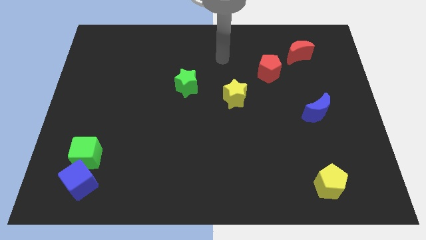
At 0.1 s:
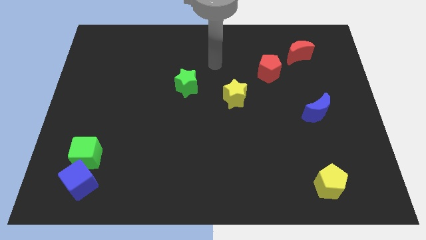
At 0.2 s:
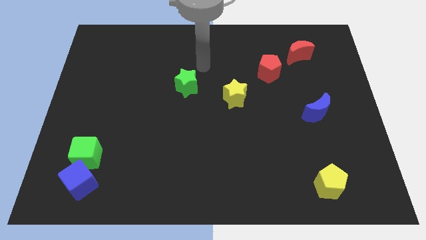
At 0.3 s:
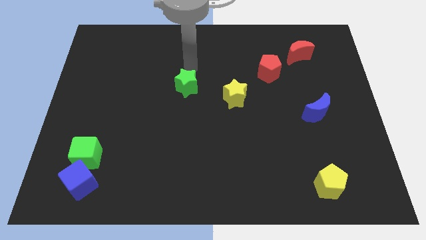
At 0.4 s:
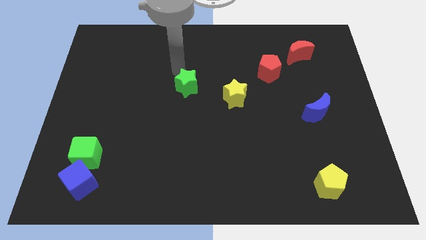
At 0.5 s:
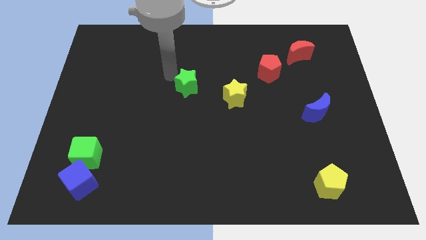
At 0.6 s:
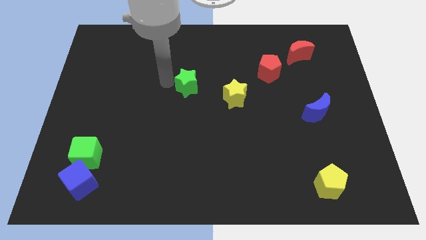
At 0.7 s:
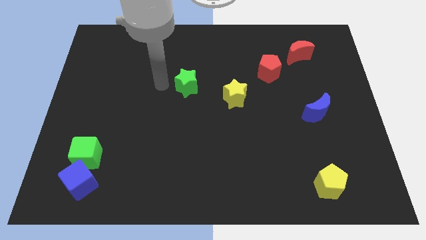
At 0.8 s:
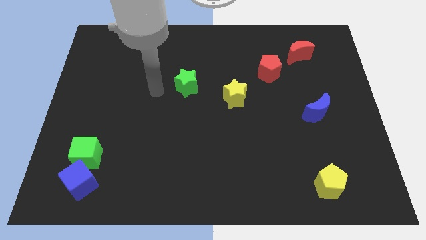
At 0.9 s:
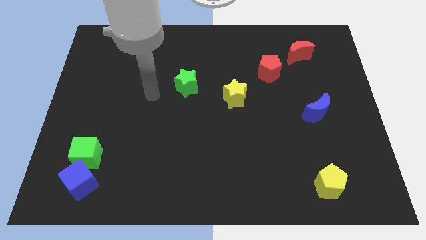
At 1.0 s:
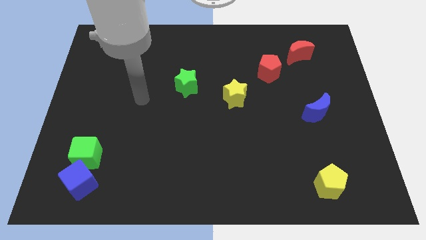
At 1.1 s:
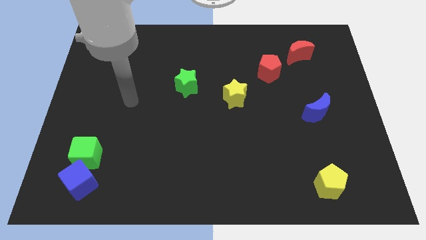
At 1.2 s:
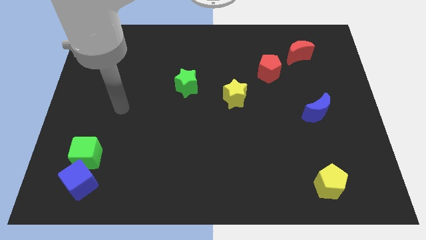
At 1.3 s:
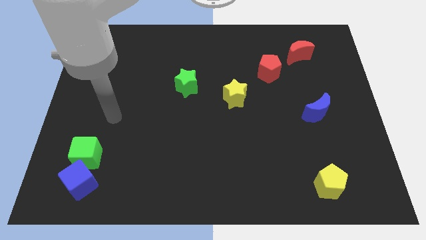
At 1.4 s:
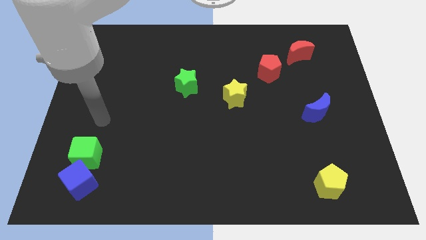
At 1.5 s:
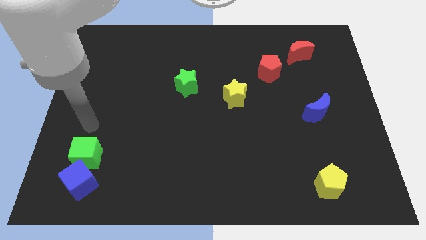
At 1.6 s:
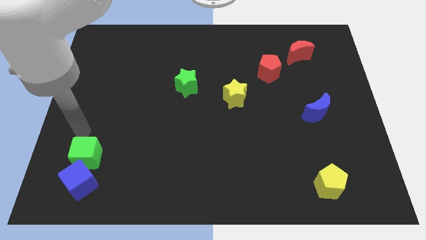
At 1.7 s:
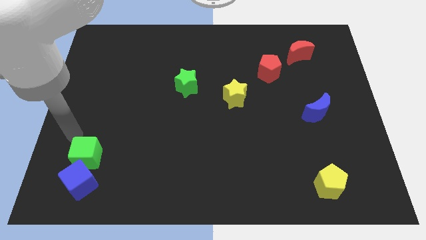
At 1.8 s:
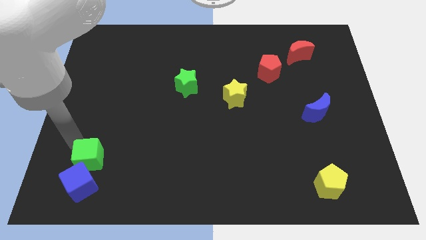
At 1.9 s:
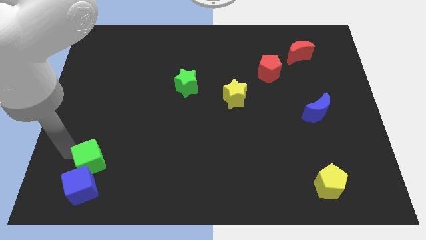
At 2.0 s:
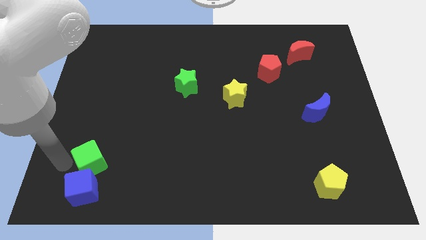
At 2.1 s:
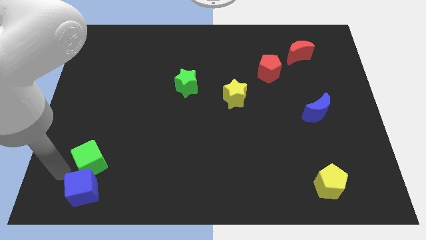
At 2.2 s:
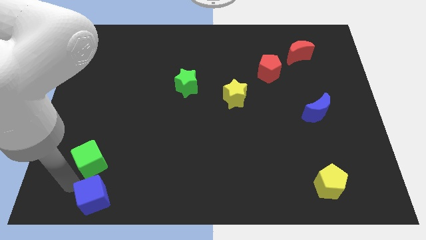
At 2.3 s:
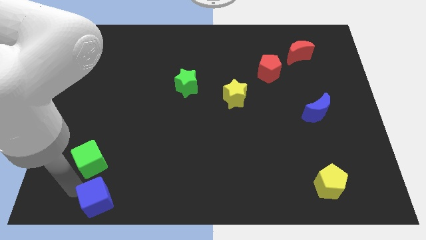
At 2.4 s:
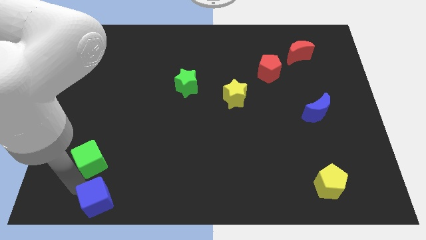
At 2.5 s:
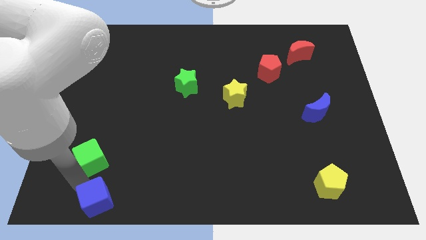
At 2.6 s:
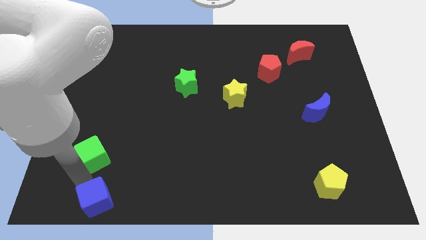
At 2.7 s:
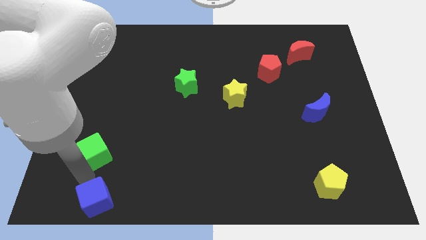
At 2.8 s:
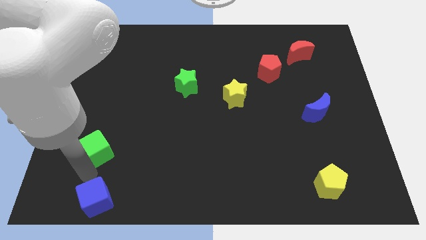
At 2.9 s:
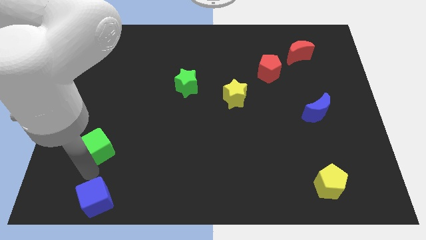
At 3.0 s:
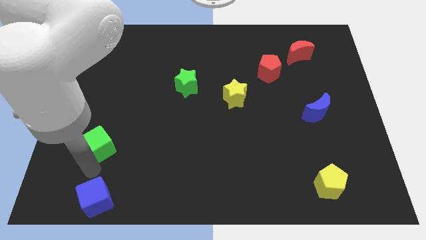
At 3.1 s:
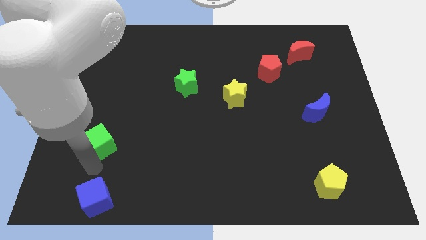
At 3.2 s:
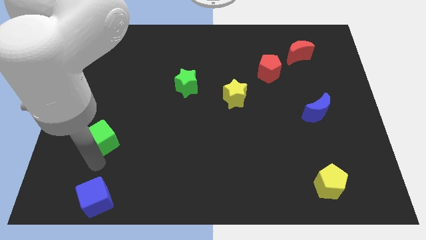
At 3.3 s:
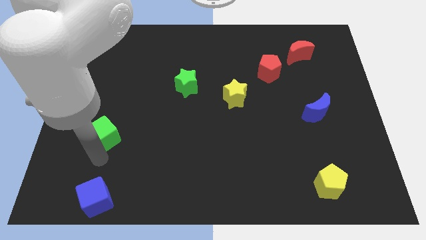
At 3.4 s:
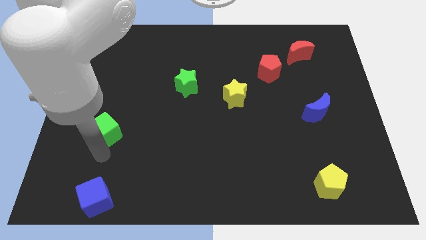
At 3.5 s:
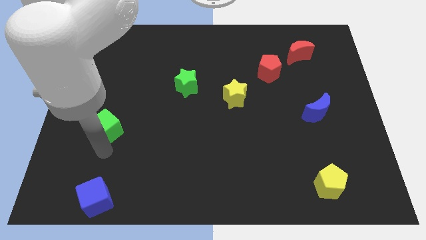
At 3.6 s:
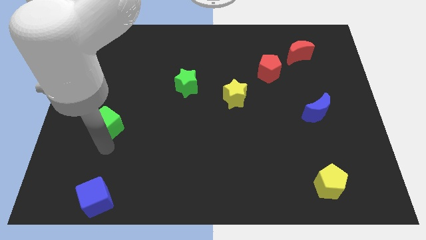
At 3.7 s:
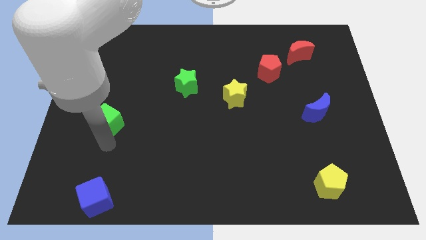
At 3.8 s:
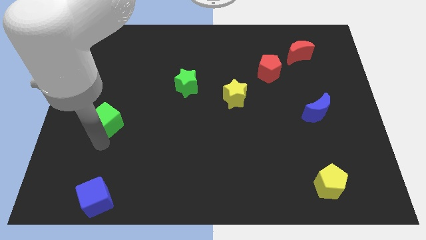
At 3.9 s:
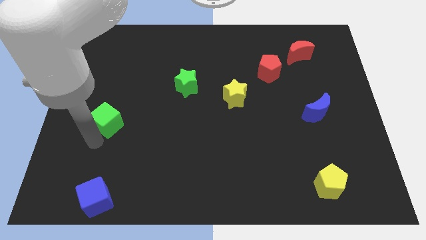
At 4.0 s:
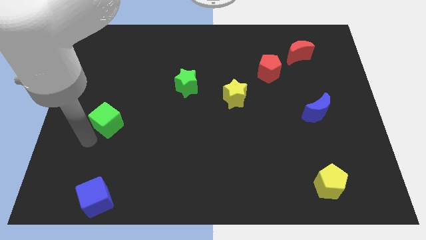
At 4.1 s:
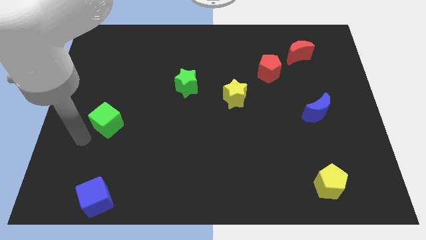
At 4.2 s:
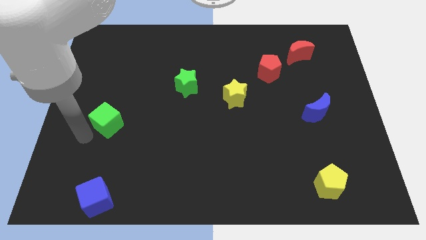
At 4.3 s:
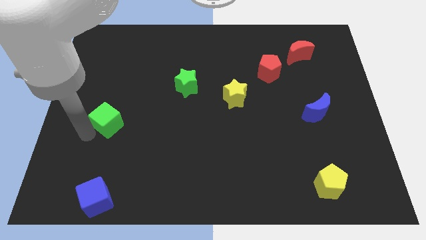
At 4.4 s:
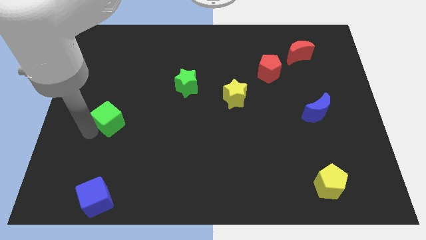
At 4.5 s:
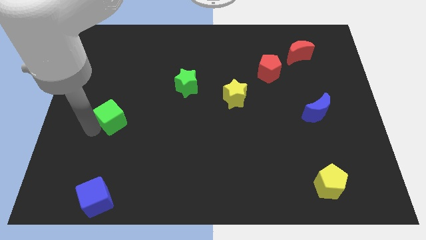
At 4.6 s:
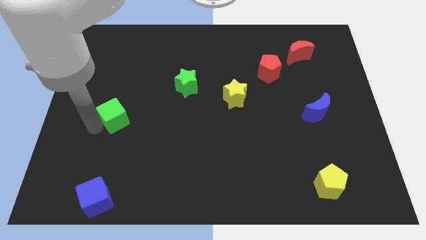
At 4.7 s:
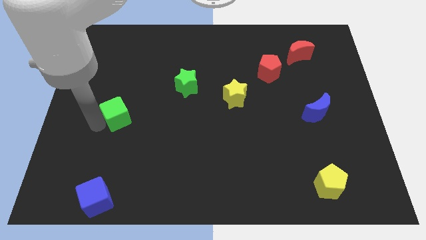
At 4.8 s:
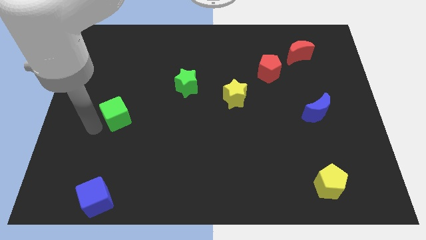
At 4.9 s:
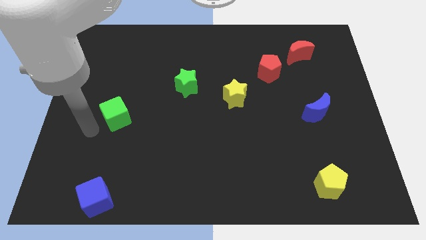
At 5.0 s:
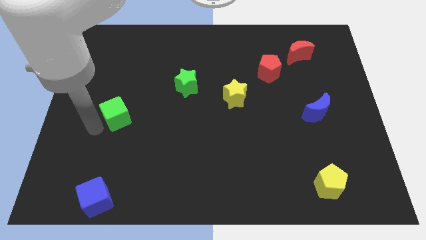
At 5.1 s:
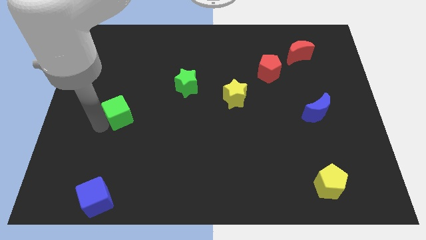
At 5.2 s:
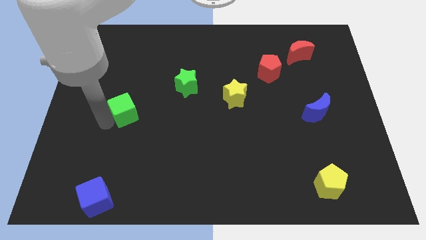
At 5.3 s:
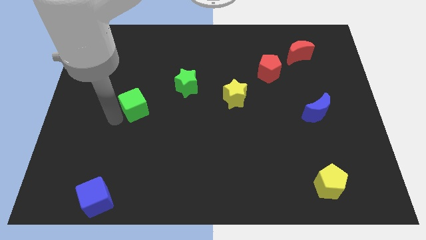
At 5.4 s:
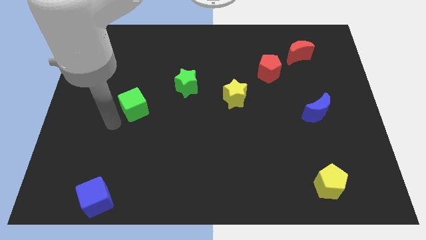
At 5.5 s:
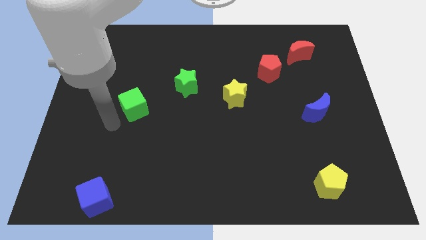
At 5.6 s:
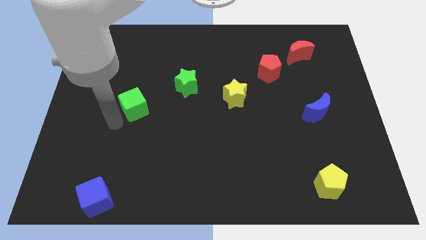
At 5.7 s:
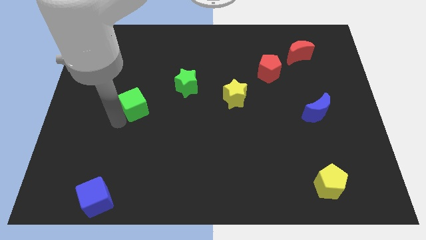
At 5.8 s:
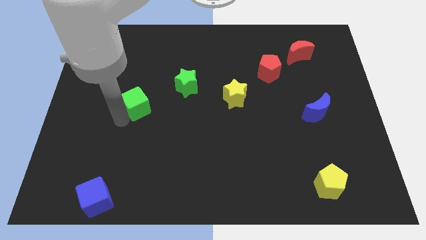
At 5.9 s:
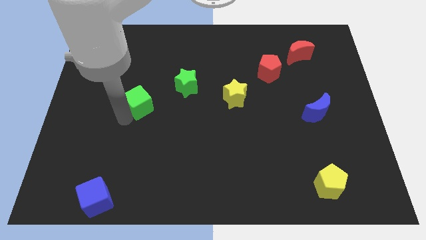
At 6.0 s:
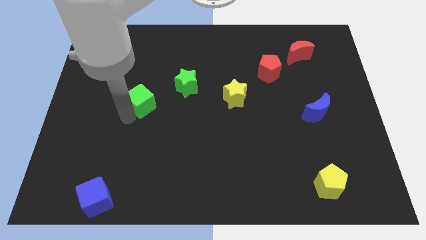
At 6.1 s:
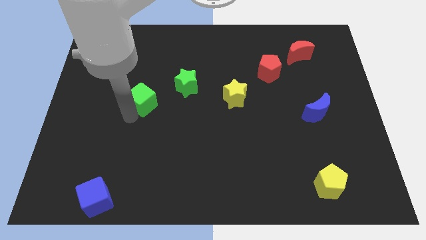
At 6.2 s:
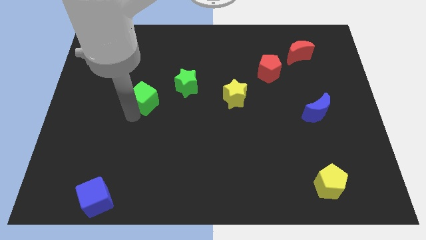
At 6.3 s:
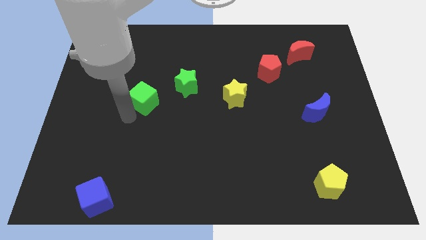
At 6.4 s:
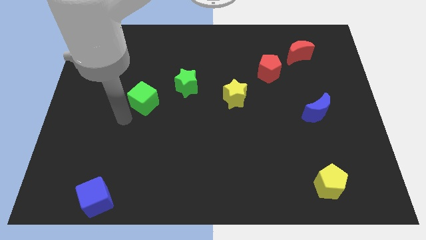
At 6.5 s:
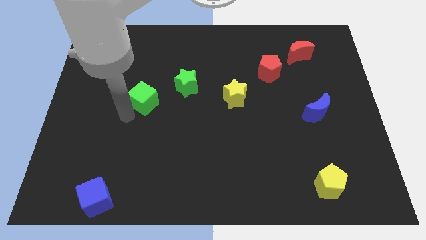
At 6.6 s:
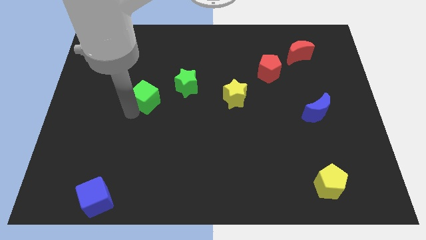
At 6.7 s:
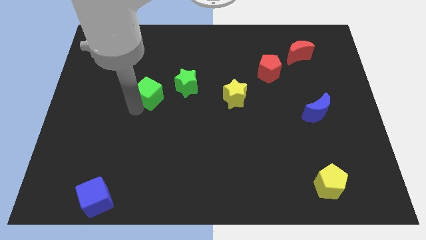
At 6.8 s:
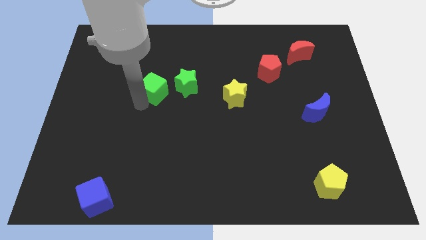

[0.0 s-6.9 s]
move the green cube upwards and right

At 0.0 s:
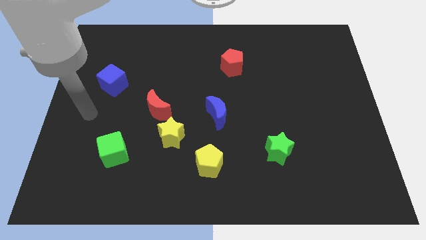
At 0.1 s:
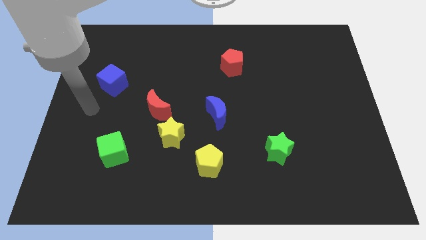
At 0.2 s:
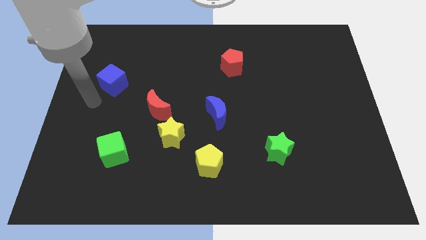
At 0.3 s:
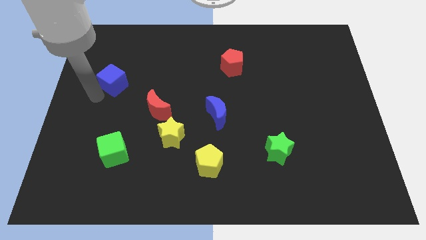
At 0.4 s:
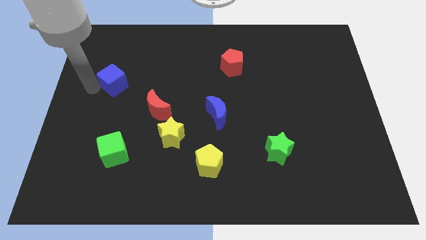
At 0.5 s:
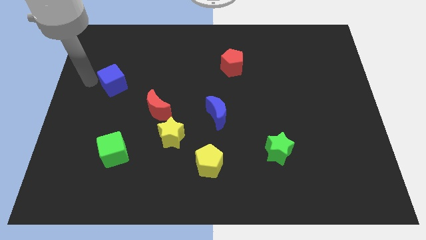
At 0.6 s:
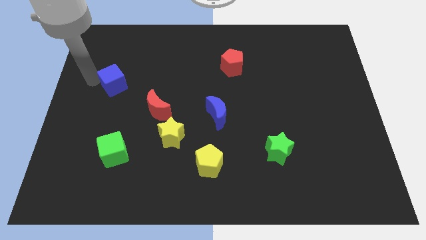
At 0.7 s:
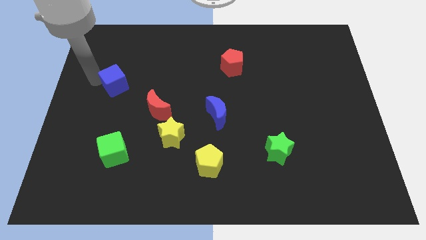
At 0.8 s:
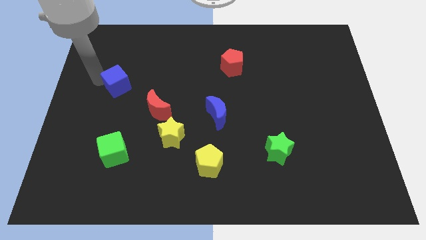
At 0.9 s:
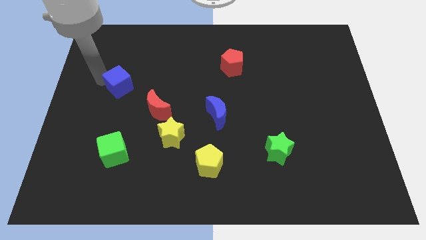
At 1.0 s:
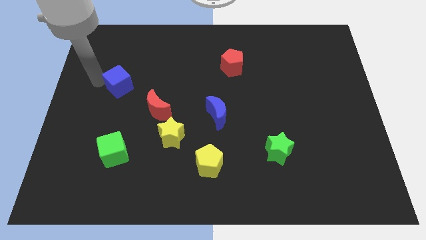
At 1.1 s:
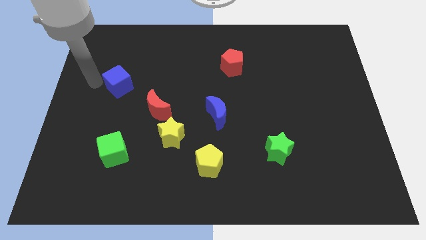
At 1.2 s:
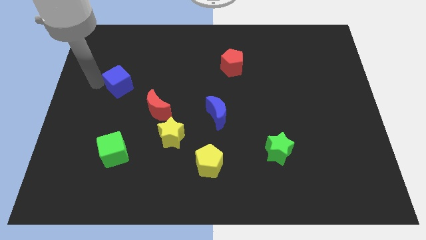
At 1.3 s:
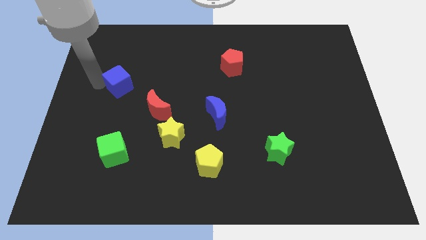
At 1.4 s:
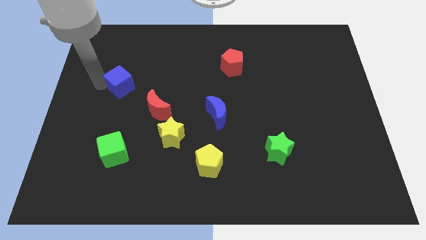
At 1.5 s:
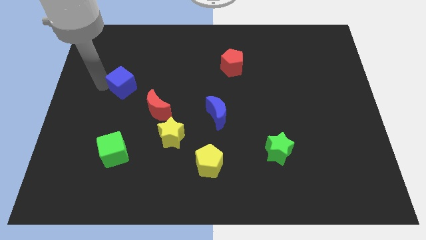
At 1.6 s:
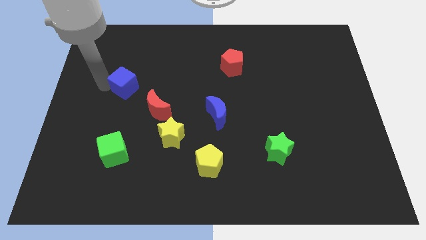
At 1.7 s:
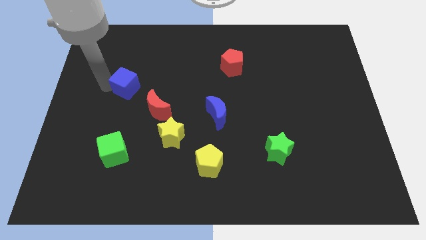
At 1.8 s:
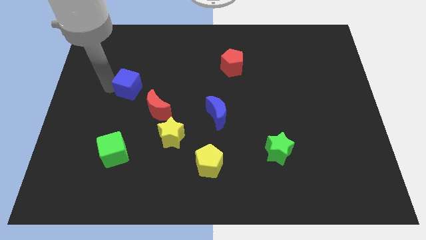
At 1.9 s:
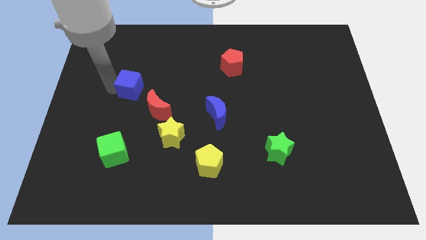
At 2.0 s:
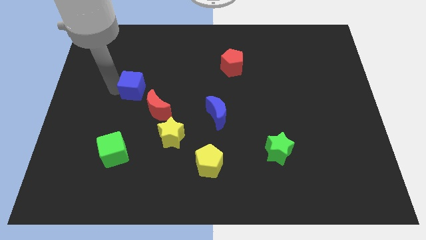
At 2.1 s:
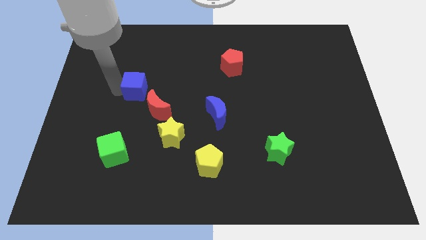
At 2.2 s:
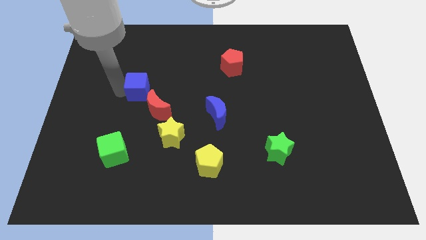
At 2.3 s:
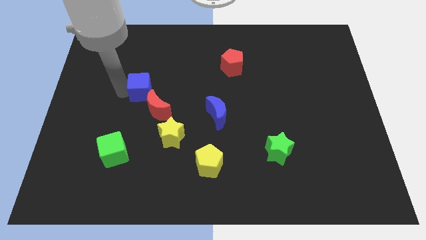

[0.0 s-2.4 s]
slightly push the blue cube to the right
